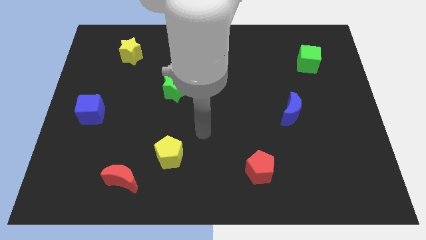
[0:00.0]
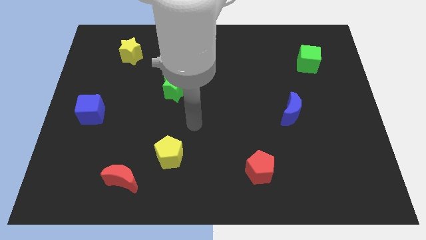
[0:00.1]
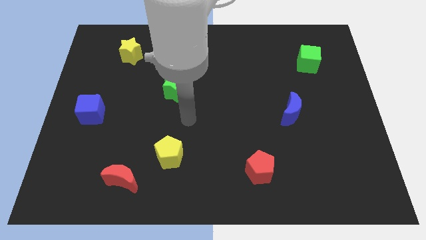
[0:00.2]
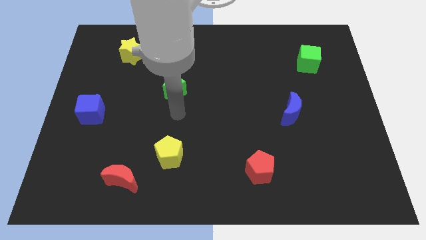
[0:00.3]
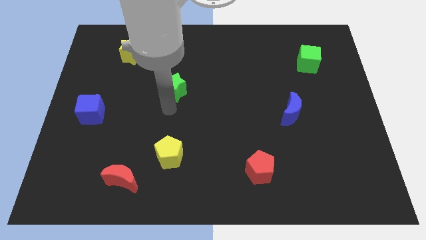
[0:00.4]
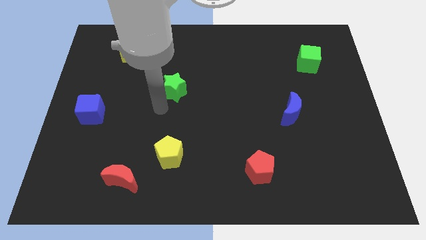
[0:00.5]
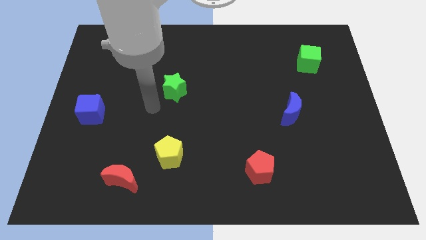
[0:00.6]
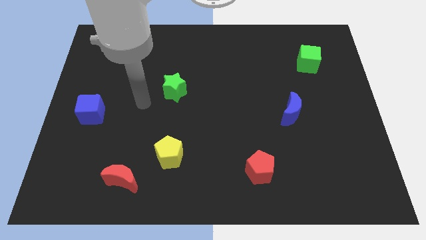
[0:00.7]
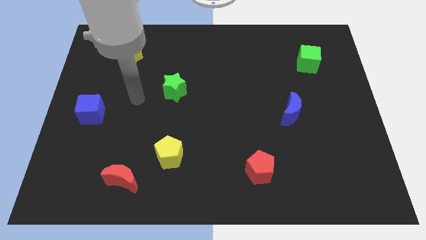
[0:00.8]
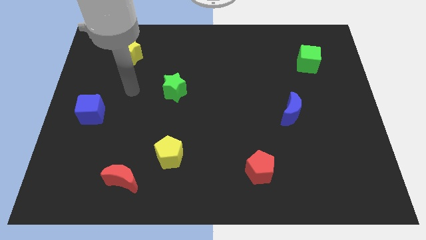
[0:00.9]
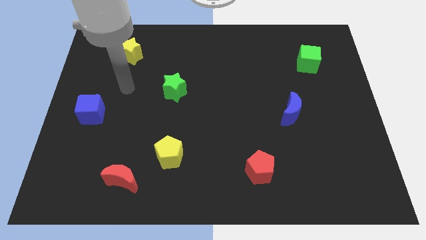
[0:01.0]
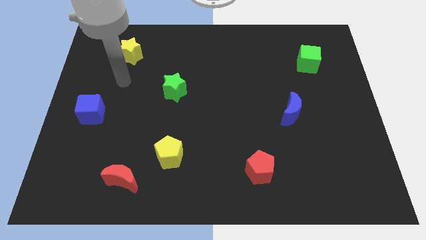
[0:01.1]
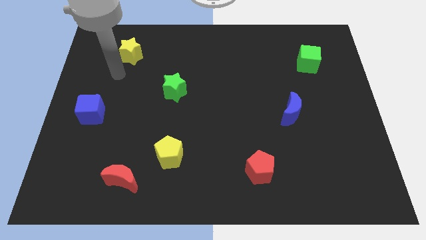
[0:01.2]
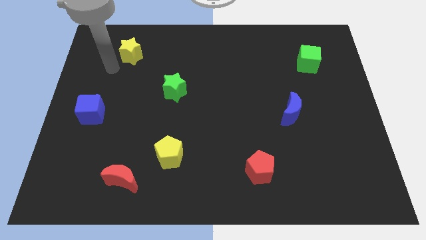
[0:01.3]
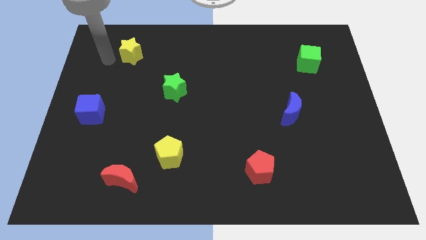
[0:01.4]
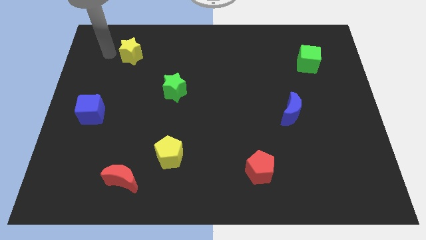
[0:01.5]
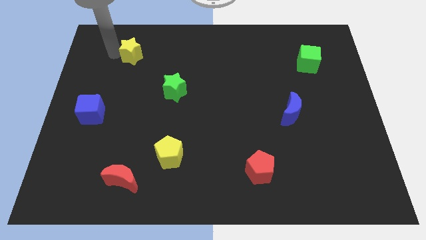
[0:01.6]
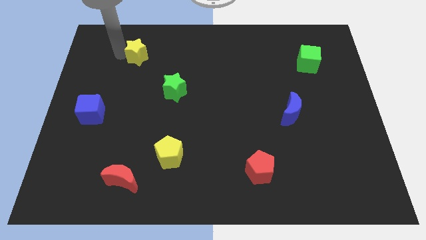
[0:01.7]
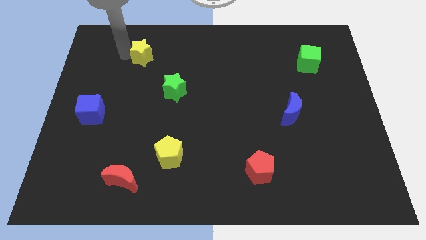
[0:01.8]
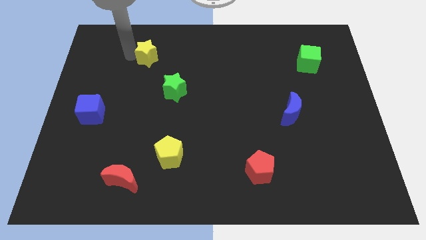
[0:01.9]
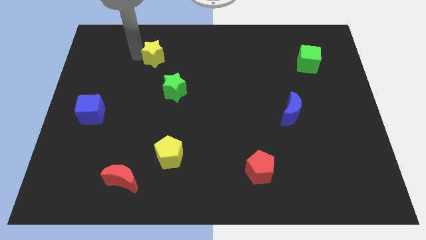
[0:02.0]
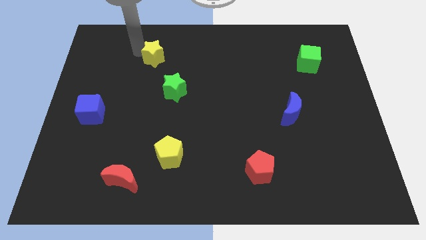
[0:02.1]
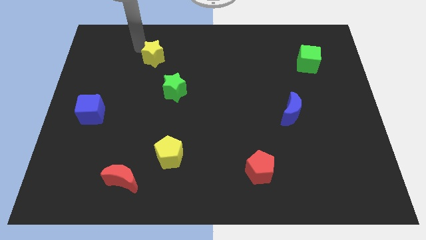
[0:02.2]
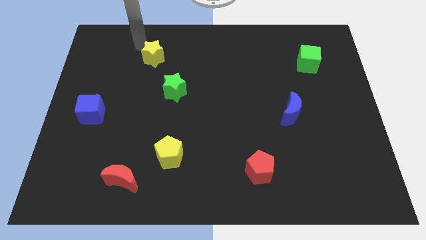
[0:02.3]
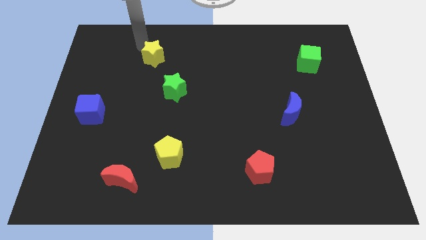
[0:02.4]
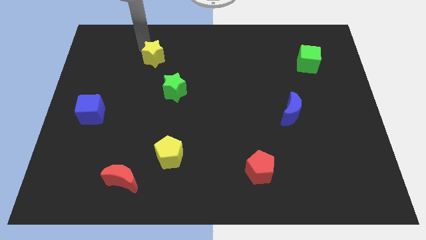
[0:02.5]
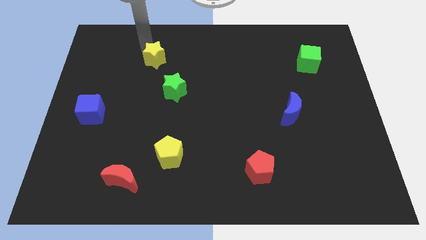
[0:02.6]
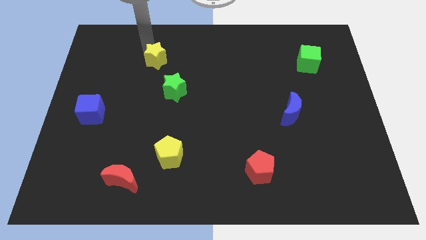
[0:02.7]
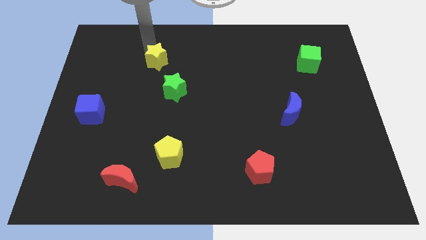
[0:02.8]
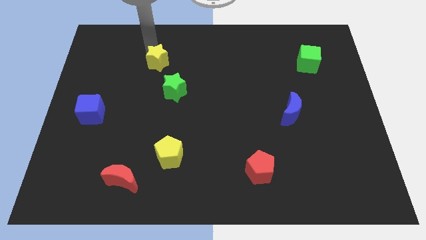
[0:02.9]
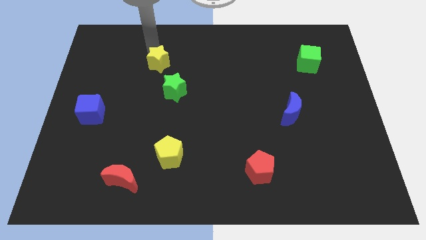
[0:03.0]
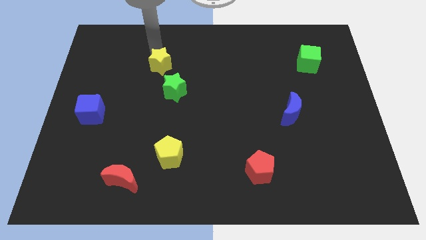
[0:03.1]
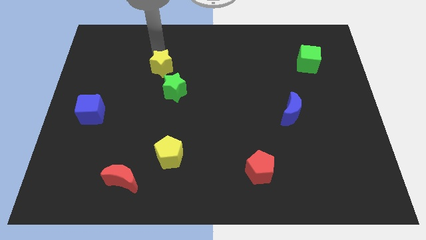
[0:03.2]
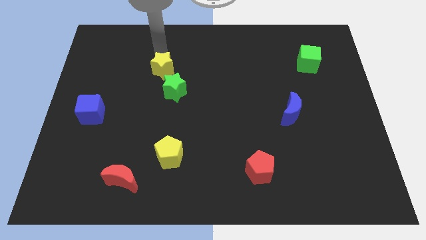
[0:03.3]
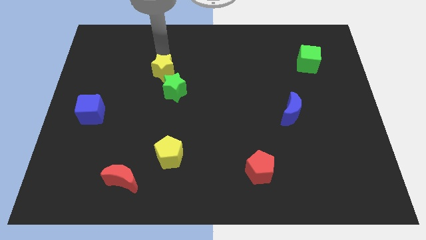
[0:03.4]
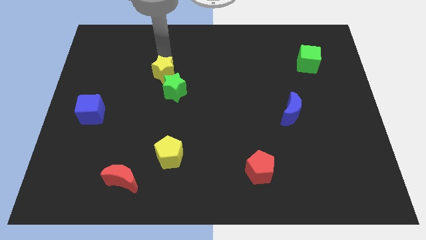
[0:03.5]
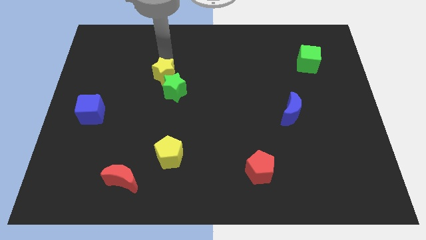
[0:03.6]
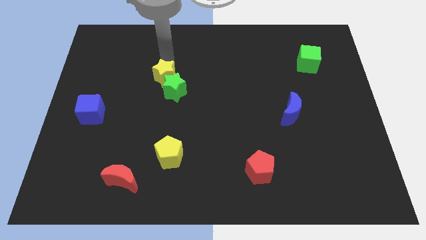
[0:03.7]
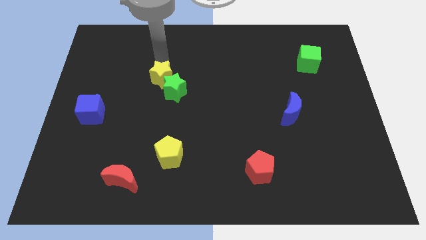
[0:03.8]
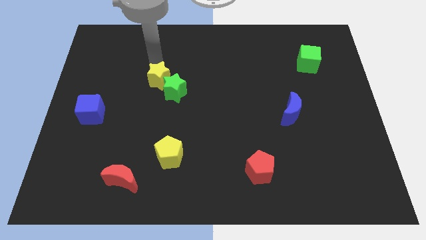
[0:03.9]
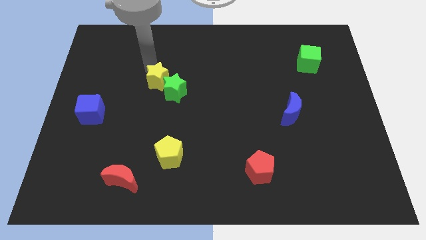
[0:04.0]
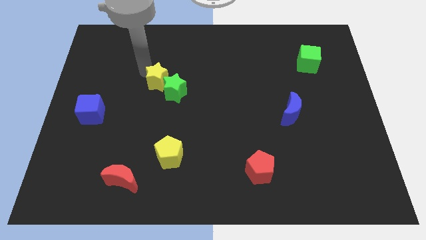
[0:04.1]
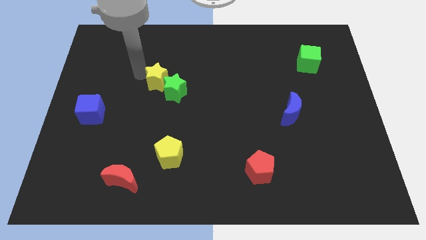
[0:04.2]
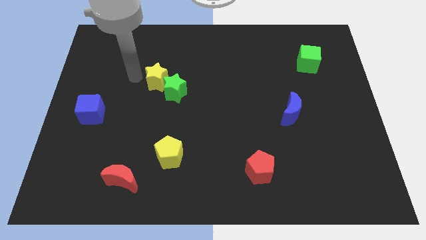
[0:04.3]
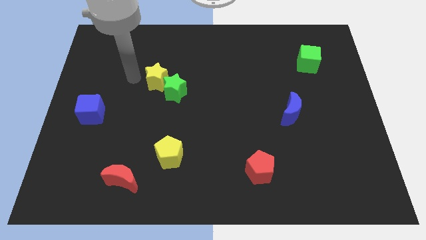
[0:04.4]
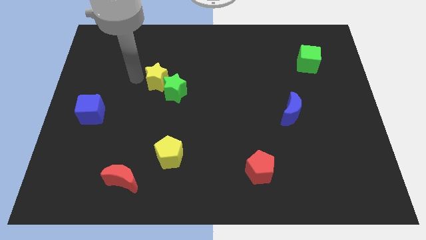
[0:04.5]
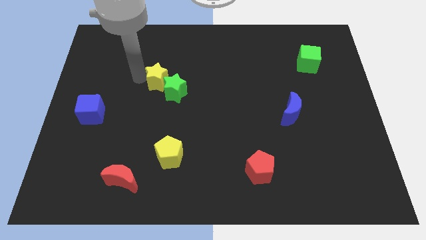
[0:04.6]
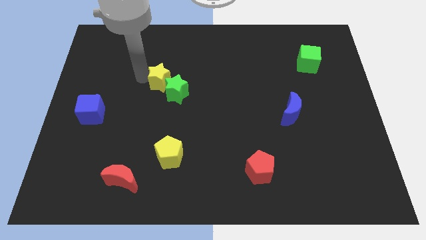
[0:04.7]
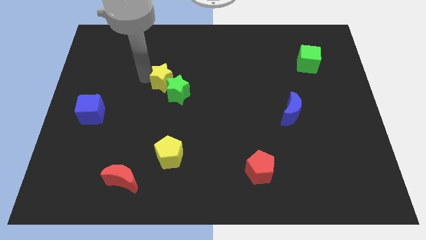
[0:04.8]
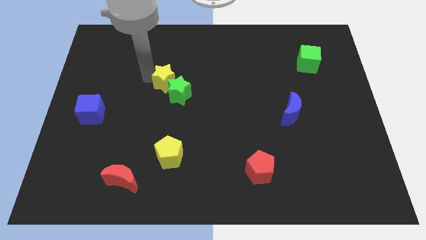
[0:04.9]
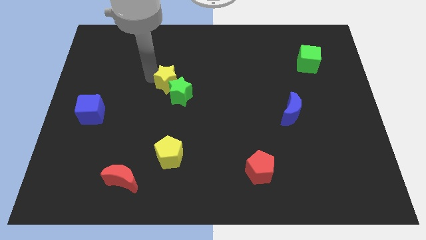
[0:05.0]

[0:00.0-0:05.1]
slide the yellow star to the middle of the board

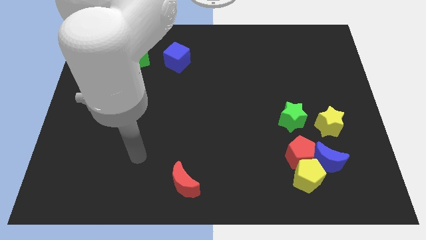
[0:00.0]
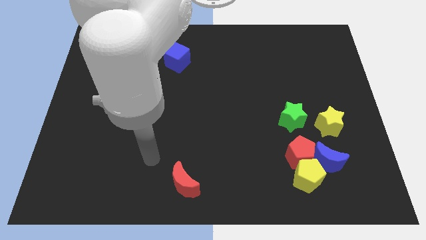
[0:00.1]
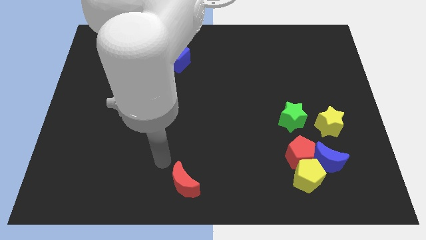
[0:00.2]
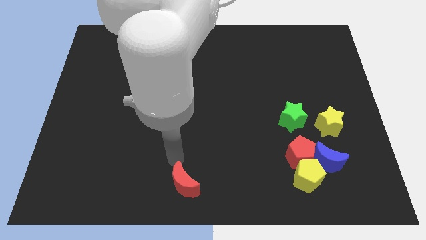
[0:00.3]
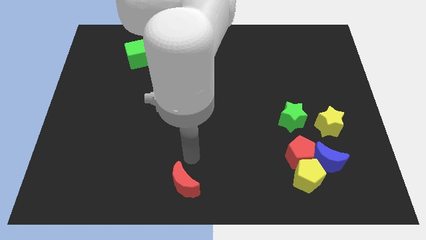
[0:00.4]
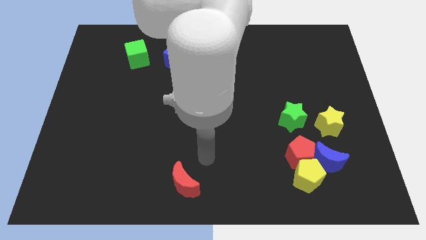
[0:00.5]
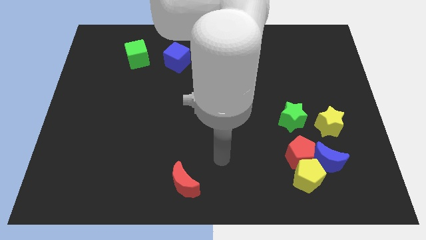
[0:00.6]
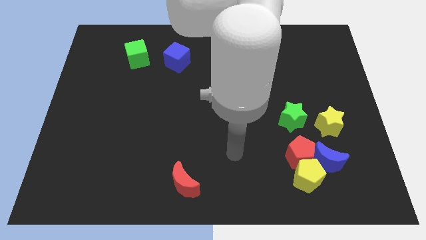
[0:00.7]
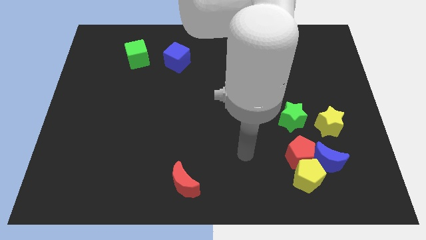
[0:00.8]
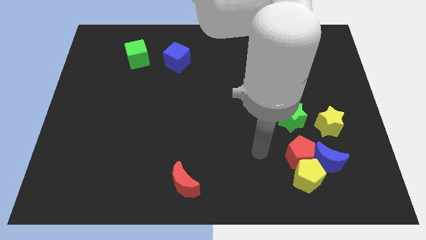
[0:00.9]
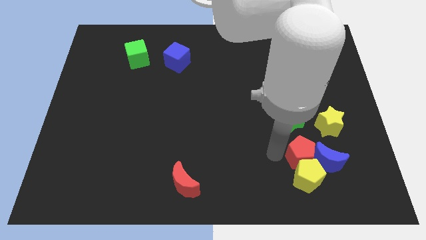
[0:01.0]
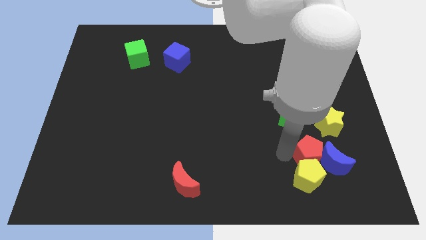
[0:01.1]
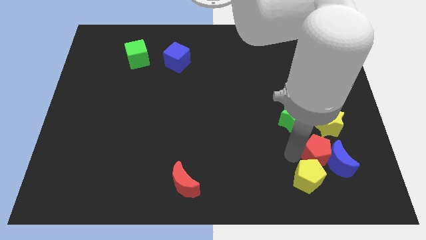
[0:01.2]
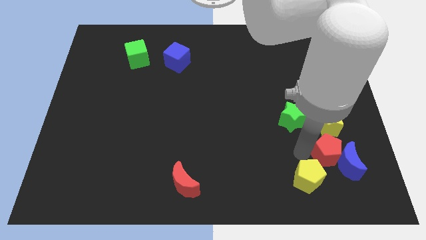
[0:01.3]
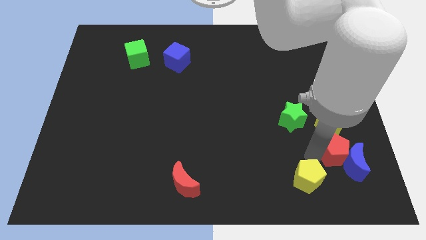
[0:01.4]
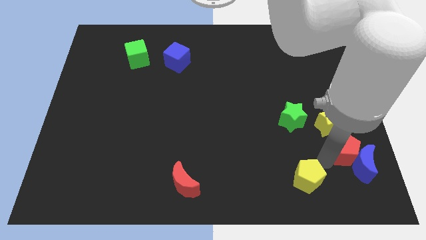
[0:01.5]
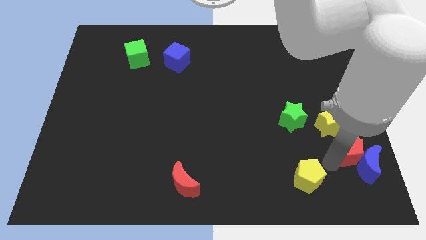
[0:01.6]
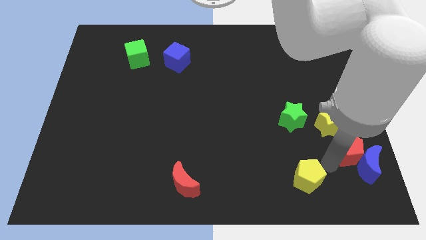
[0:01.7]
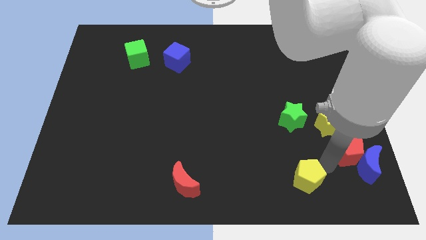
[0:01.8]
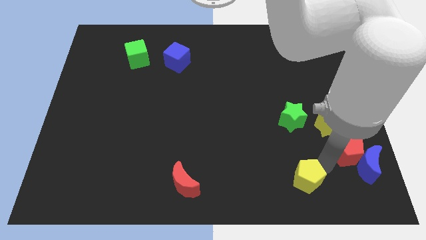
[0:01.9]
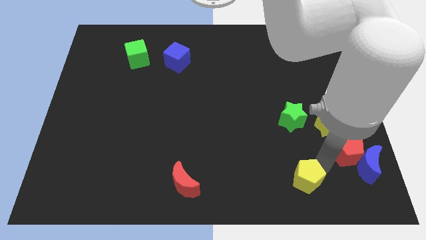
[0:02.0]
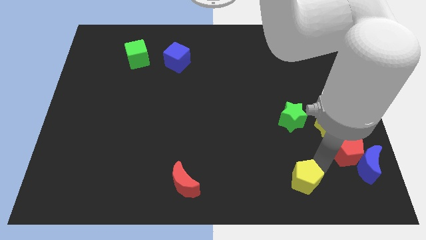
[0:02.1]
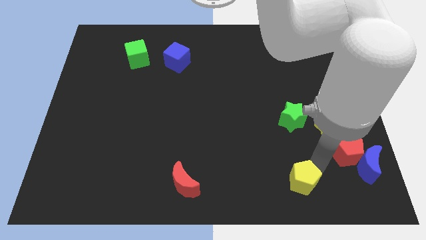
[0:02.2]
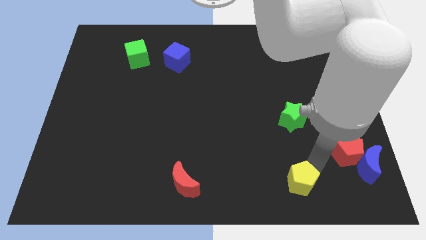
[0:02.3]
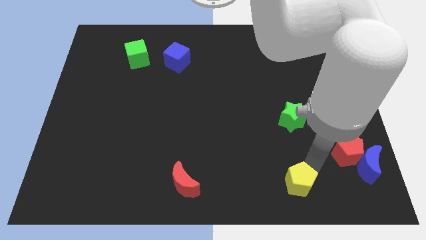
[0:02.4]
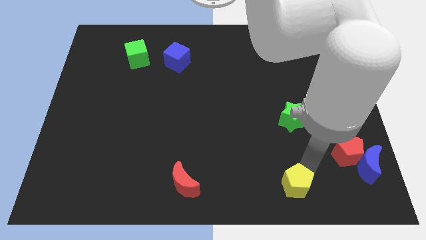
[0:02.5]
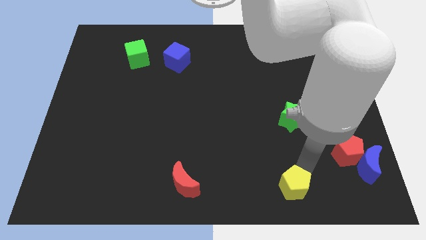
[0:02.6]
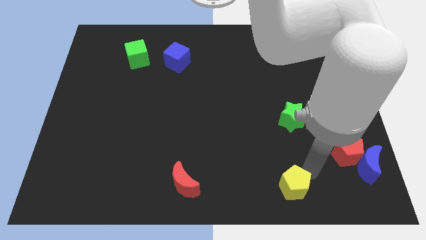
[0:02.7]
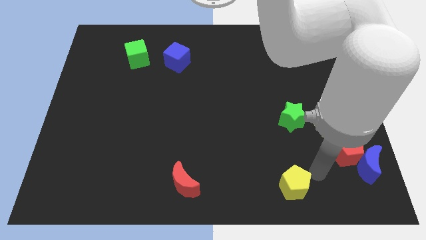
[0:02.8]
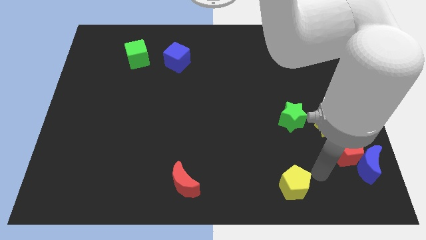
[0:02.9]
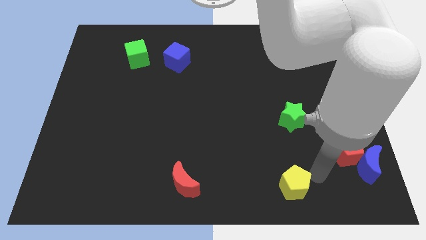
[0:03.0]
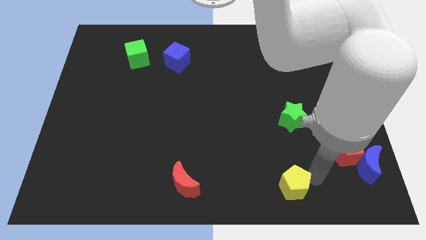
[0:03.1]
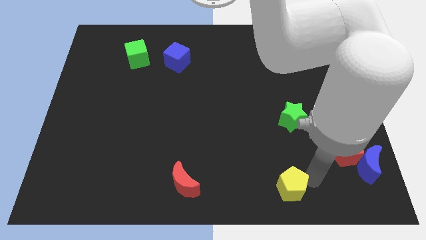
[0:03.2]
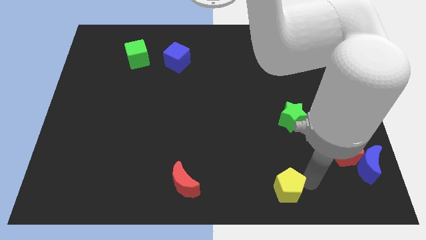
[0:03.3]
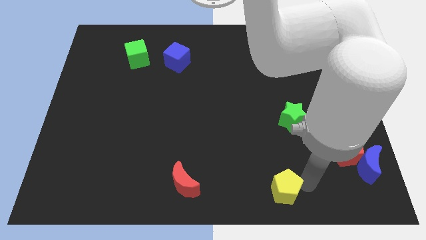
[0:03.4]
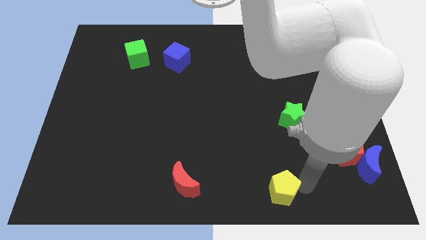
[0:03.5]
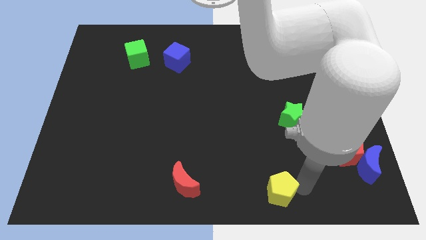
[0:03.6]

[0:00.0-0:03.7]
slide the yellow pentagon to the bottom
